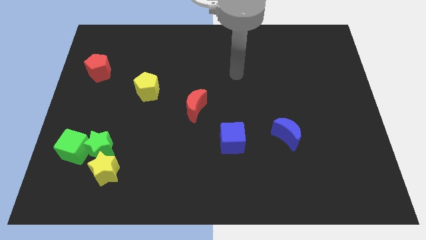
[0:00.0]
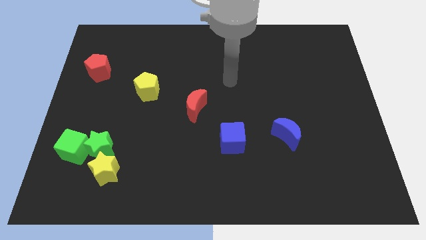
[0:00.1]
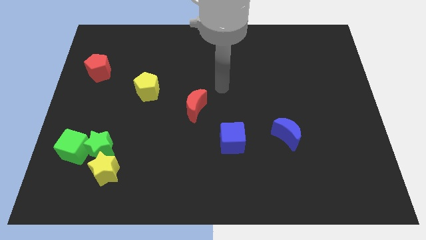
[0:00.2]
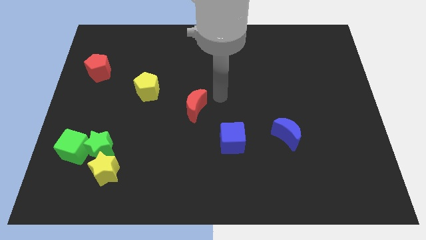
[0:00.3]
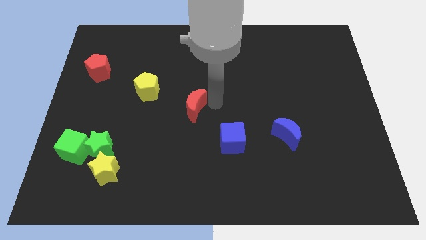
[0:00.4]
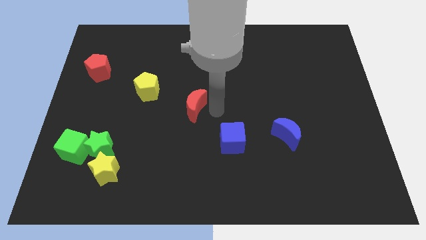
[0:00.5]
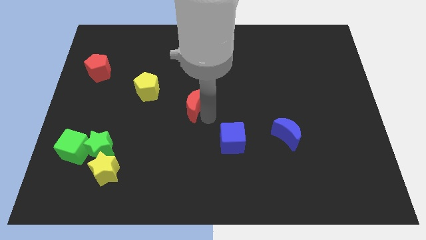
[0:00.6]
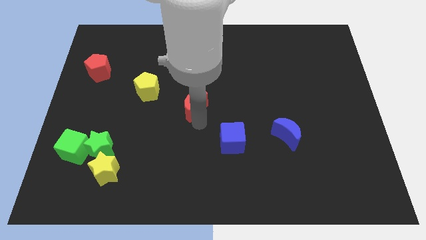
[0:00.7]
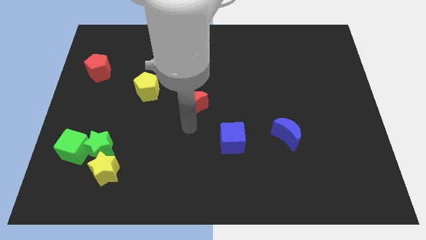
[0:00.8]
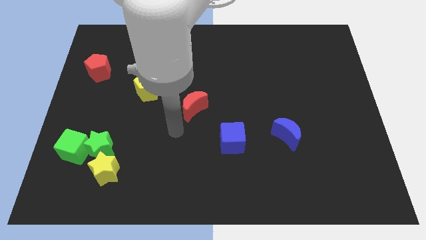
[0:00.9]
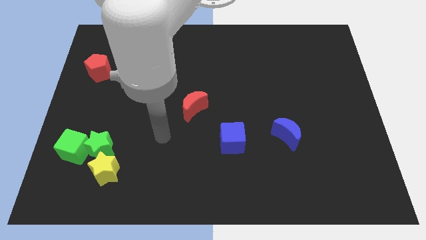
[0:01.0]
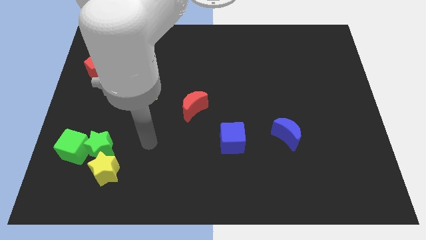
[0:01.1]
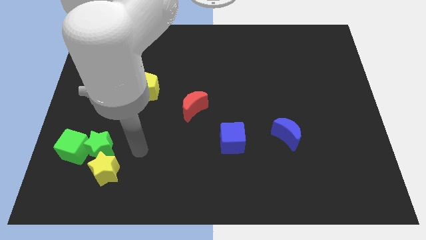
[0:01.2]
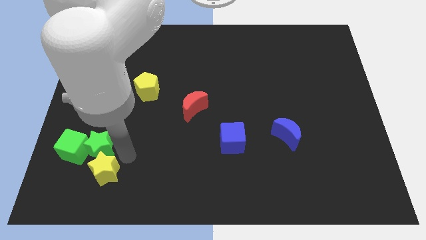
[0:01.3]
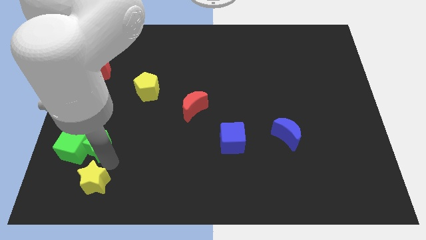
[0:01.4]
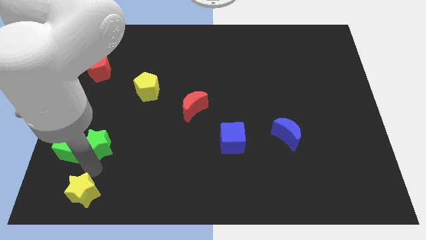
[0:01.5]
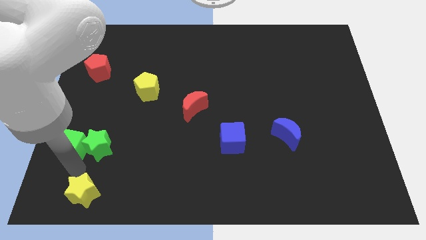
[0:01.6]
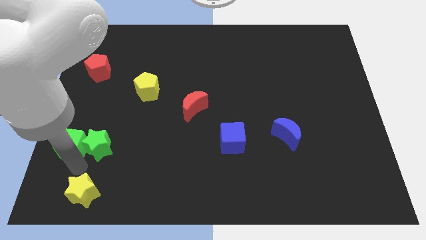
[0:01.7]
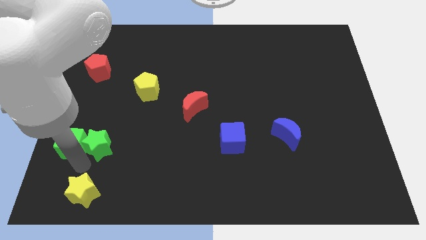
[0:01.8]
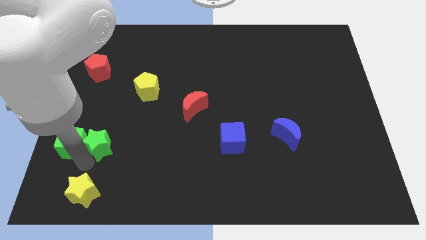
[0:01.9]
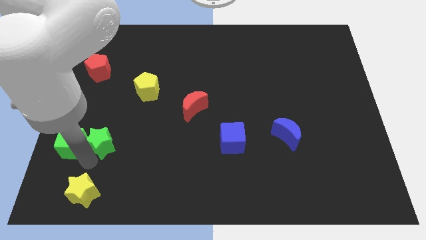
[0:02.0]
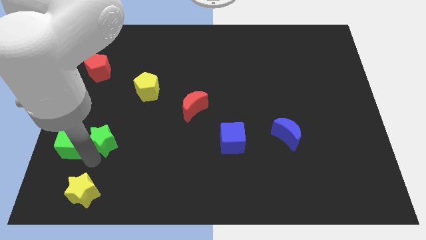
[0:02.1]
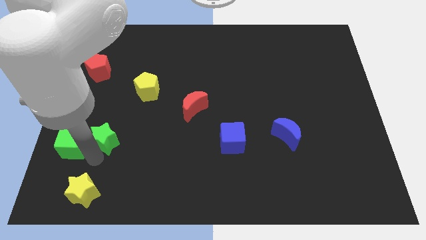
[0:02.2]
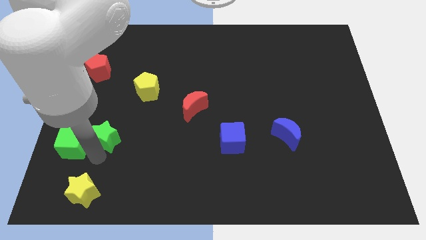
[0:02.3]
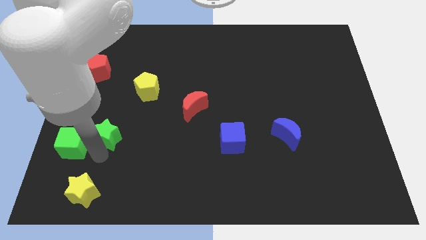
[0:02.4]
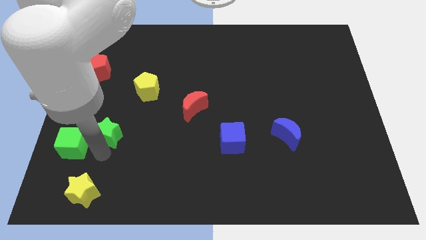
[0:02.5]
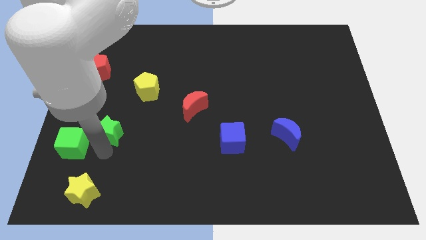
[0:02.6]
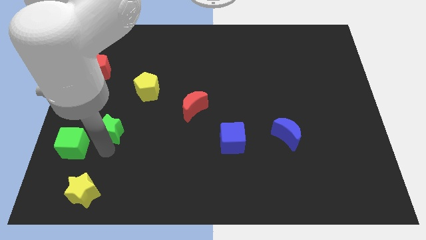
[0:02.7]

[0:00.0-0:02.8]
move the green star away from the green cube and yellow star

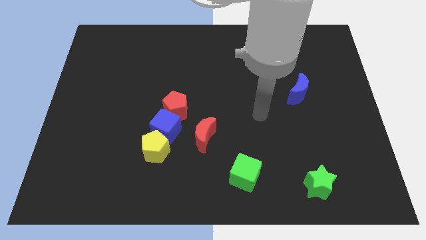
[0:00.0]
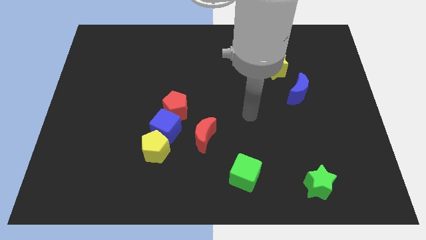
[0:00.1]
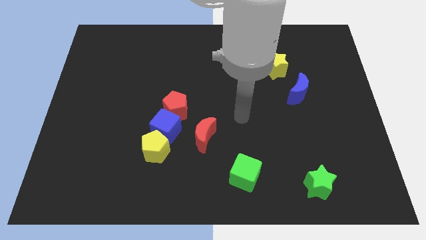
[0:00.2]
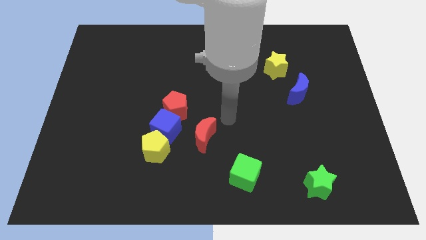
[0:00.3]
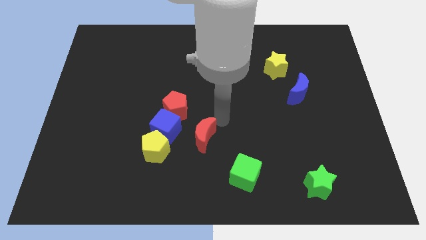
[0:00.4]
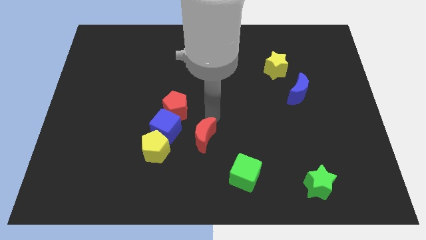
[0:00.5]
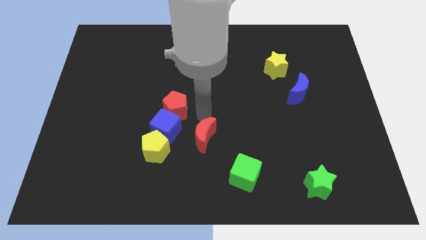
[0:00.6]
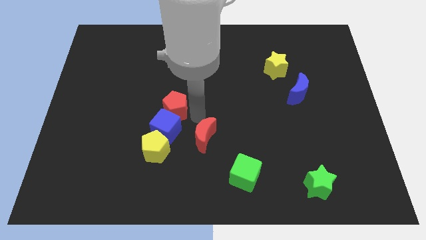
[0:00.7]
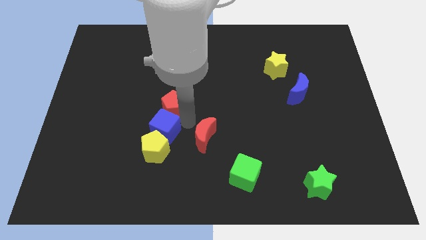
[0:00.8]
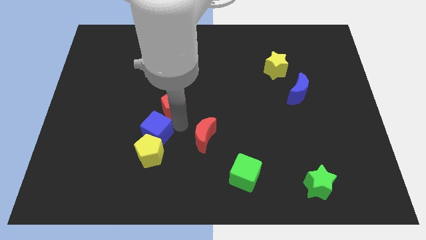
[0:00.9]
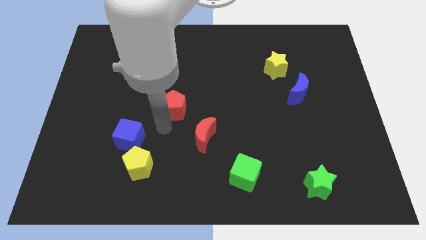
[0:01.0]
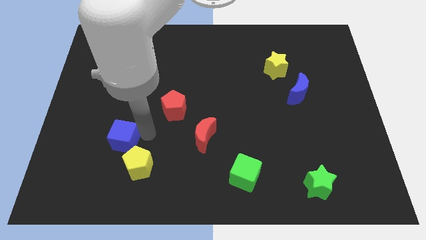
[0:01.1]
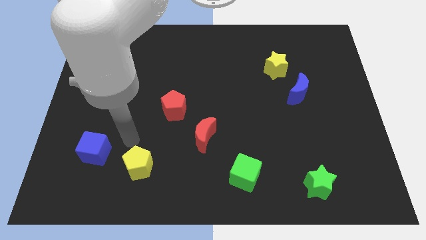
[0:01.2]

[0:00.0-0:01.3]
pull the yellow pentagon apart from the blue cube

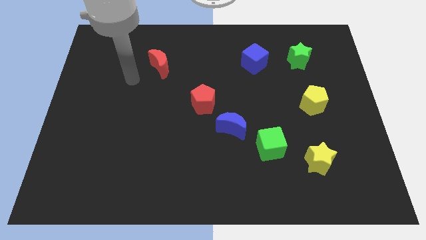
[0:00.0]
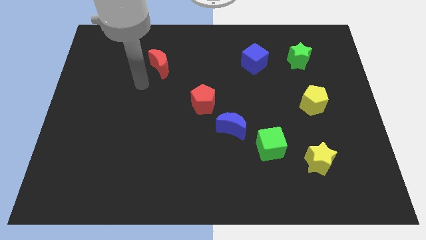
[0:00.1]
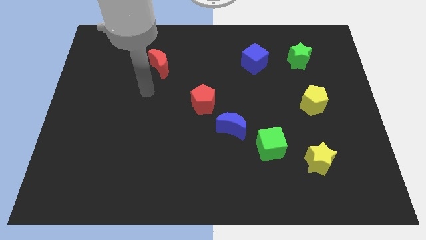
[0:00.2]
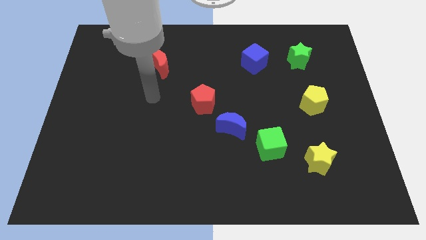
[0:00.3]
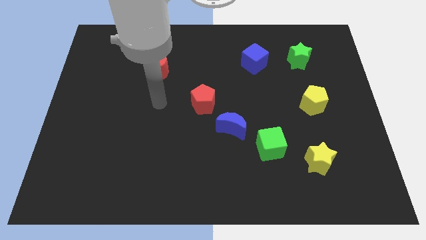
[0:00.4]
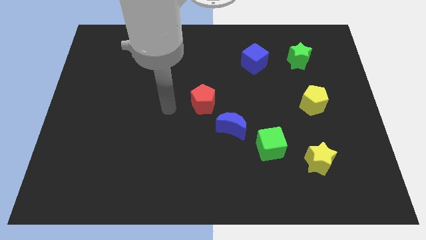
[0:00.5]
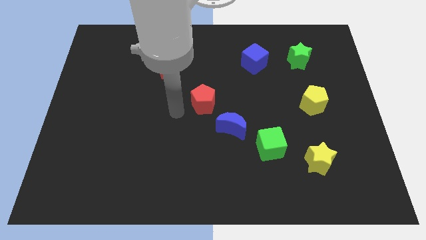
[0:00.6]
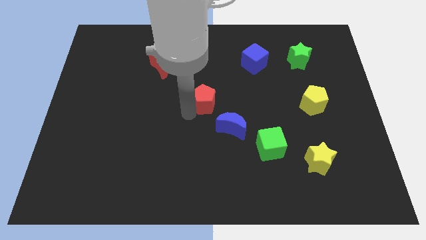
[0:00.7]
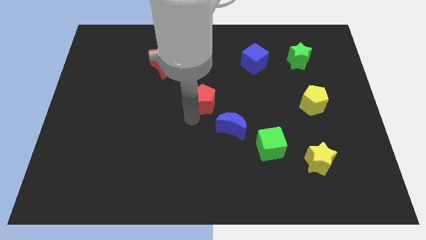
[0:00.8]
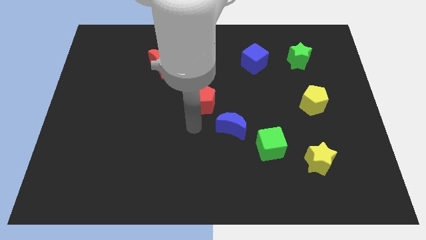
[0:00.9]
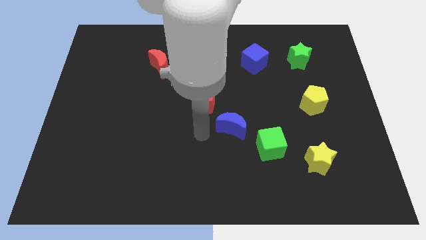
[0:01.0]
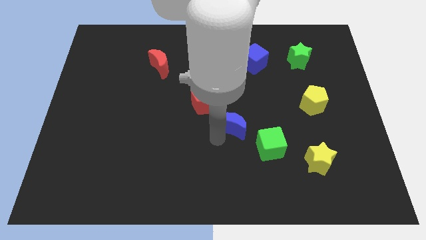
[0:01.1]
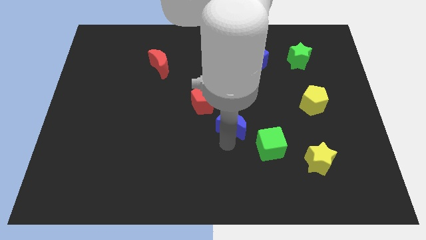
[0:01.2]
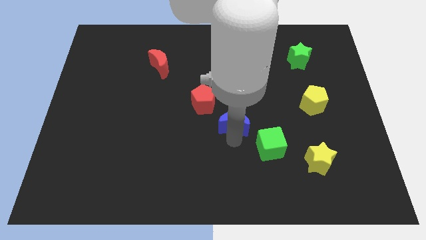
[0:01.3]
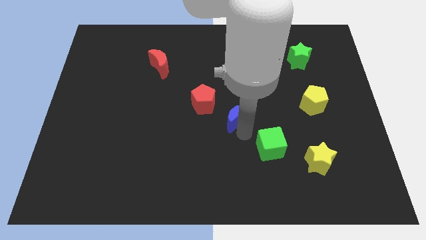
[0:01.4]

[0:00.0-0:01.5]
pull the green cube apart from the blue moon

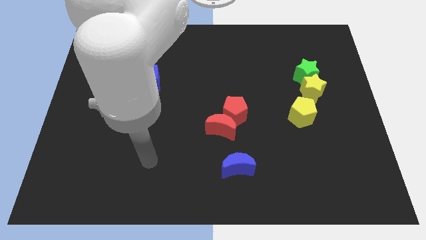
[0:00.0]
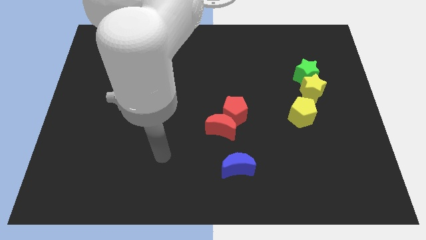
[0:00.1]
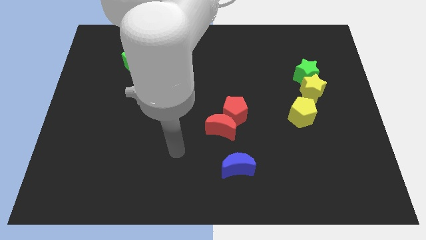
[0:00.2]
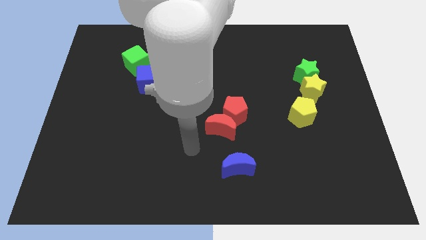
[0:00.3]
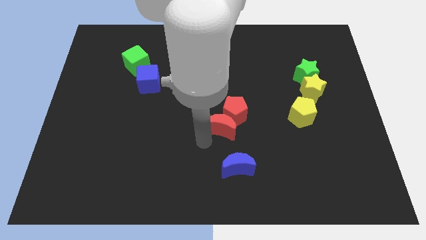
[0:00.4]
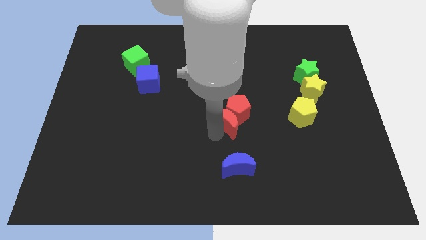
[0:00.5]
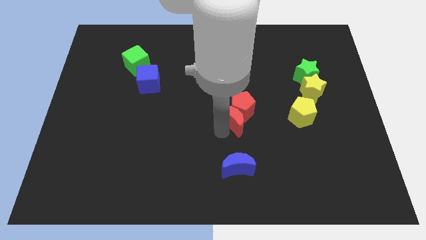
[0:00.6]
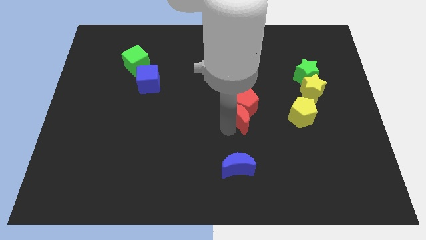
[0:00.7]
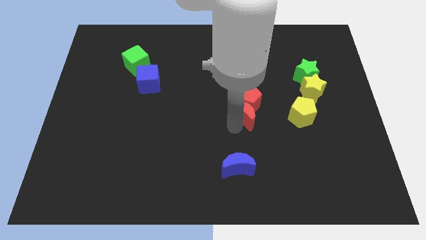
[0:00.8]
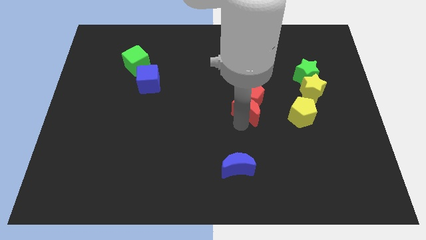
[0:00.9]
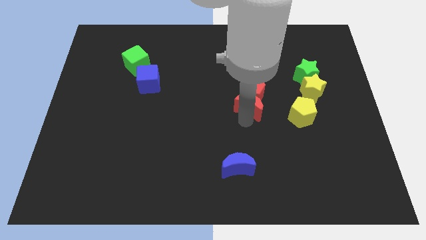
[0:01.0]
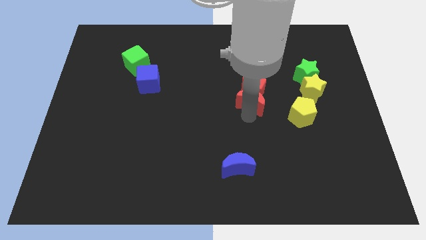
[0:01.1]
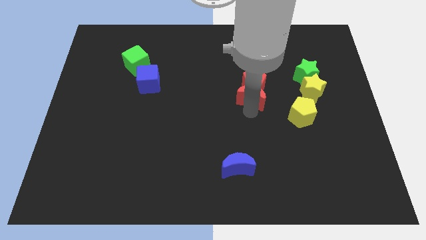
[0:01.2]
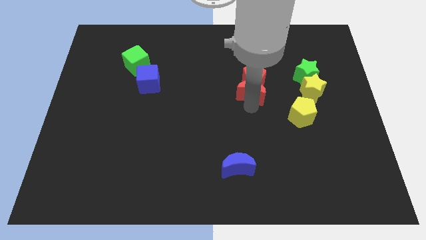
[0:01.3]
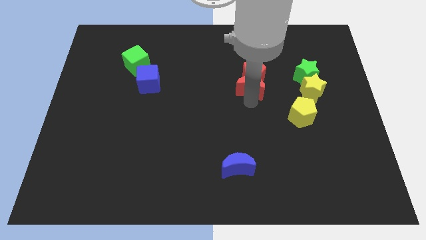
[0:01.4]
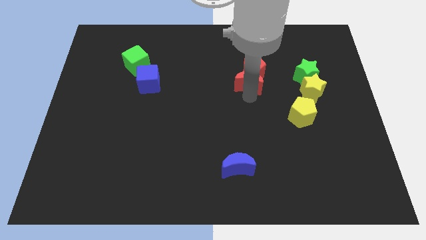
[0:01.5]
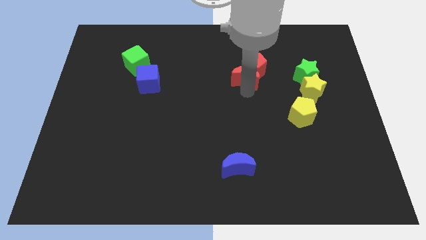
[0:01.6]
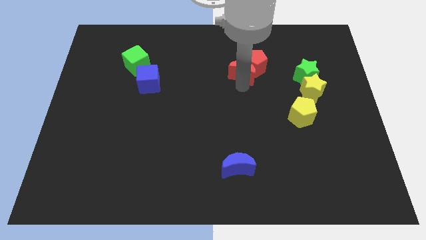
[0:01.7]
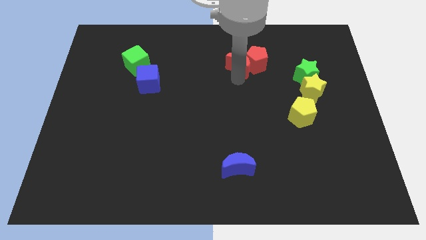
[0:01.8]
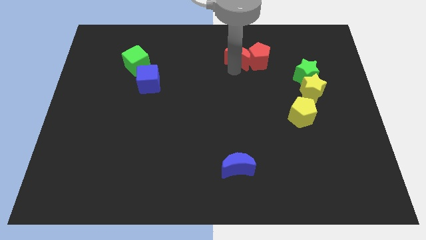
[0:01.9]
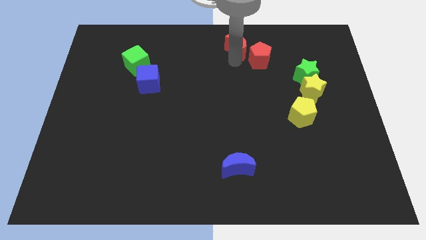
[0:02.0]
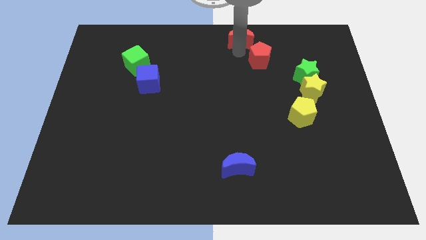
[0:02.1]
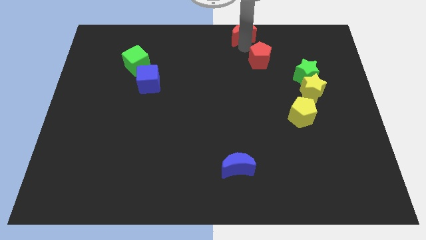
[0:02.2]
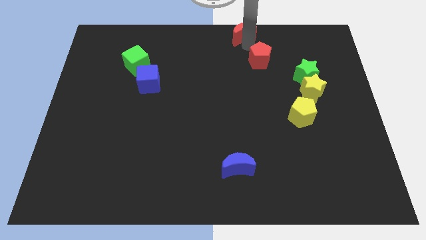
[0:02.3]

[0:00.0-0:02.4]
pull the red pentagon apart from the red moon

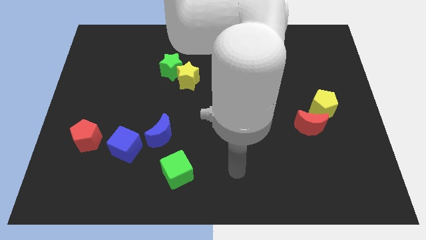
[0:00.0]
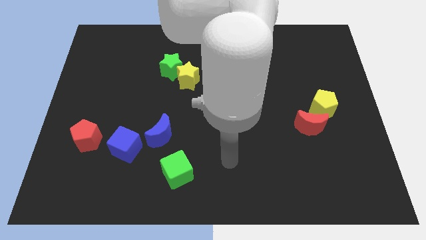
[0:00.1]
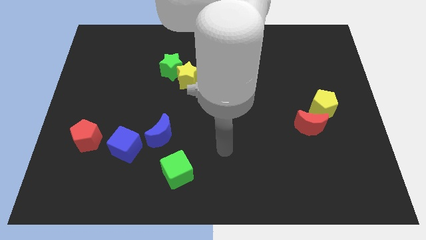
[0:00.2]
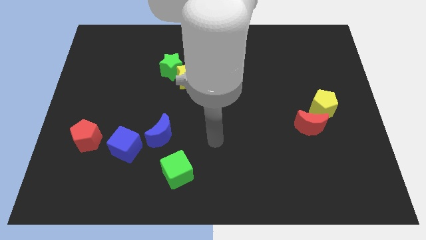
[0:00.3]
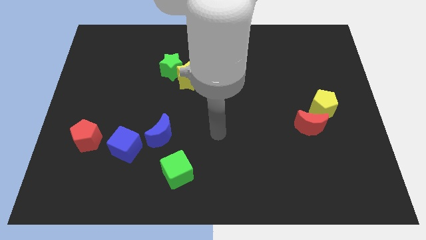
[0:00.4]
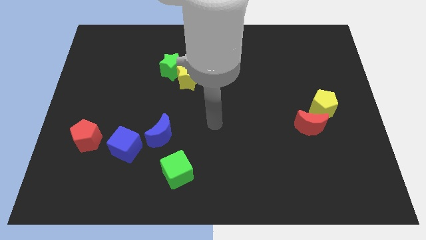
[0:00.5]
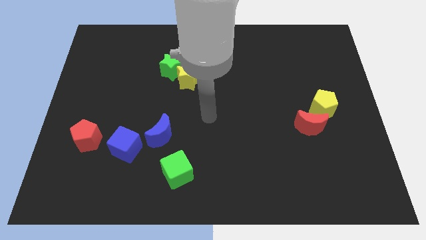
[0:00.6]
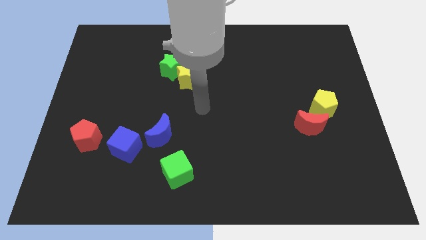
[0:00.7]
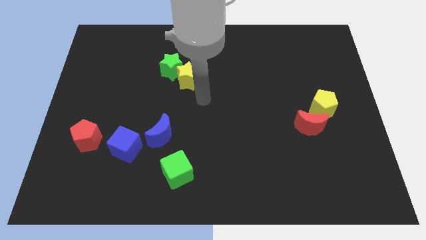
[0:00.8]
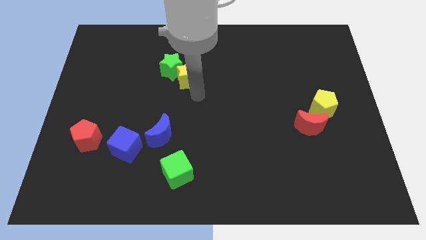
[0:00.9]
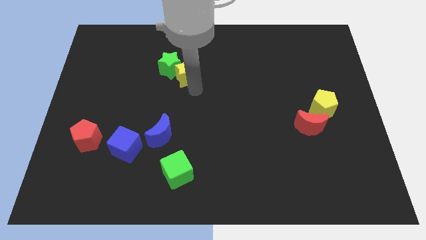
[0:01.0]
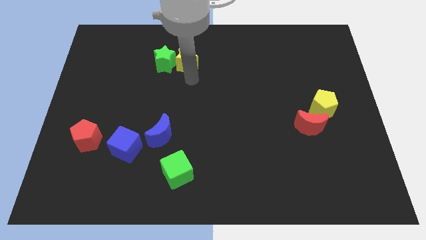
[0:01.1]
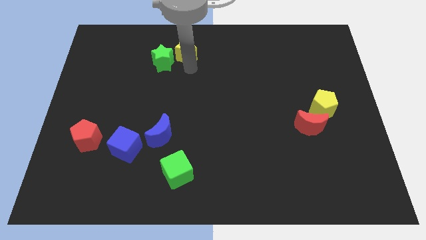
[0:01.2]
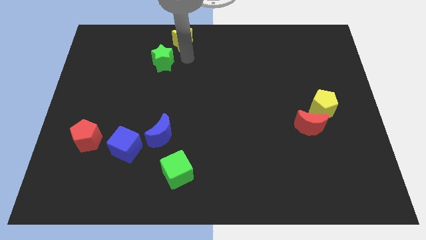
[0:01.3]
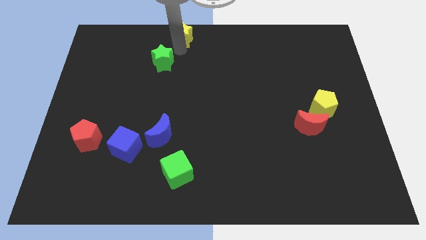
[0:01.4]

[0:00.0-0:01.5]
pull the green star apart from the yellow star
